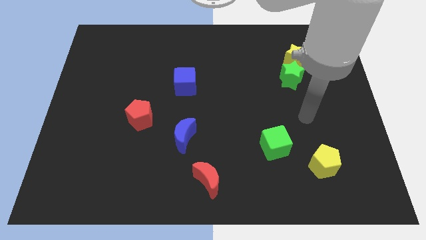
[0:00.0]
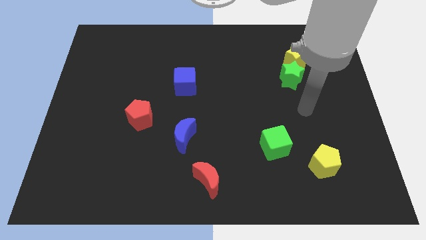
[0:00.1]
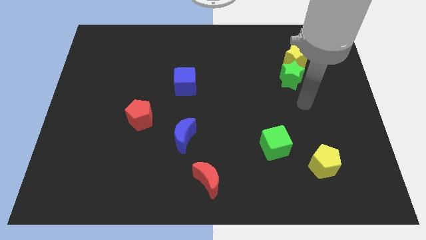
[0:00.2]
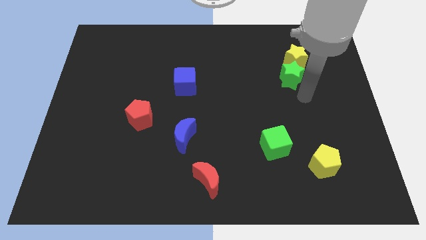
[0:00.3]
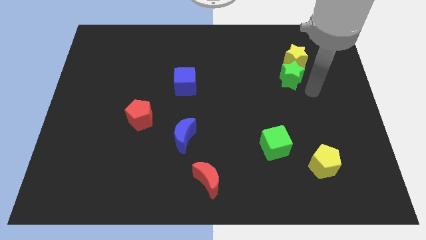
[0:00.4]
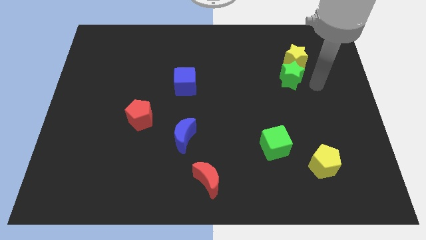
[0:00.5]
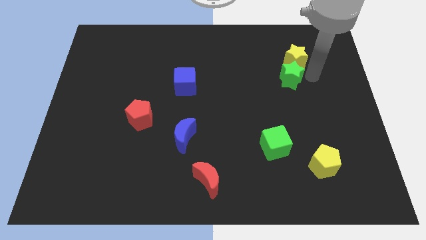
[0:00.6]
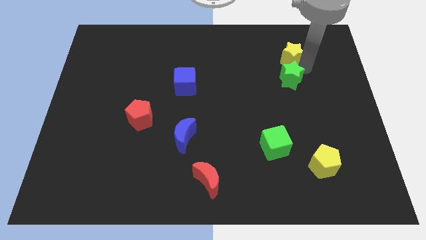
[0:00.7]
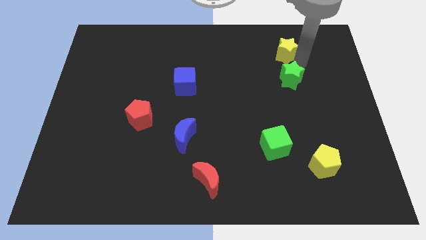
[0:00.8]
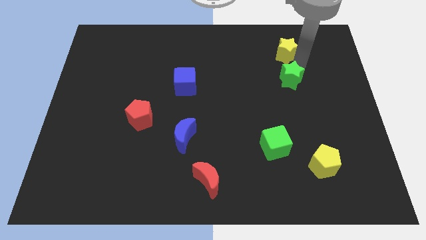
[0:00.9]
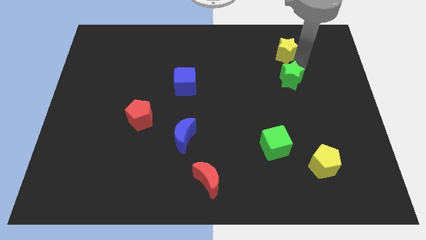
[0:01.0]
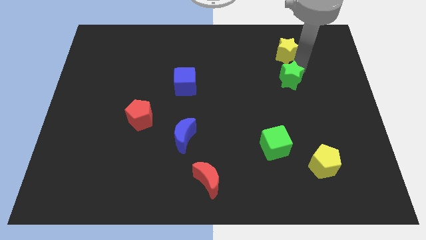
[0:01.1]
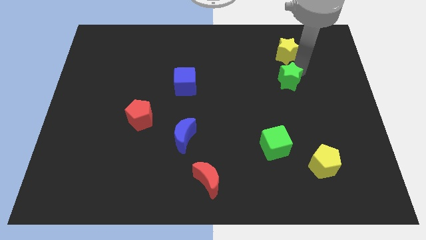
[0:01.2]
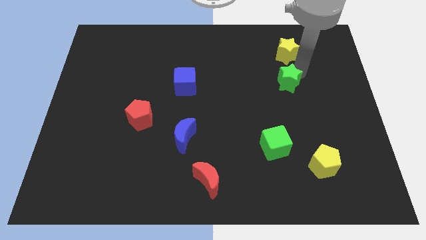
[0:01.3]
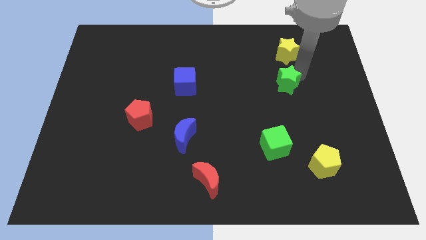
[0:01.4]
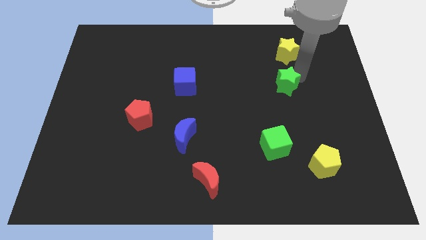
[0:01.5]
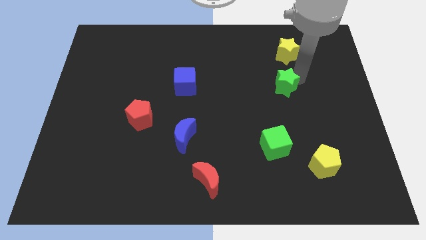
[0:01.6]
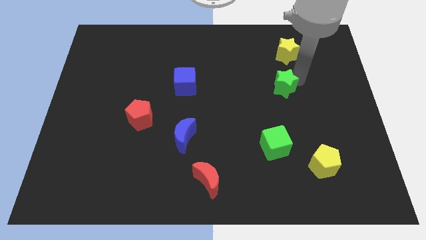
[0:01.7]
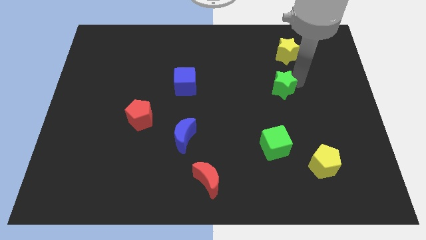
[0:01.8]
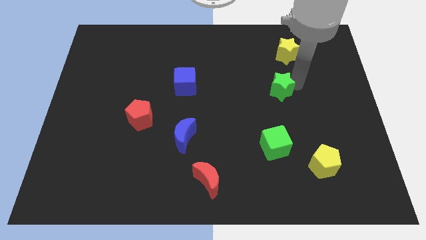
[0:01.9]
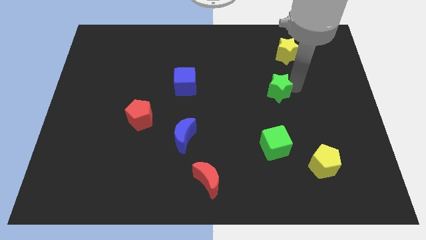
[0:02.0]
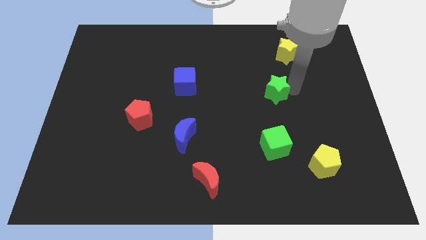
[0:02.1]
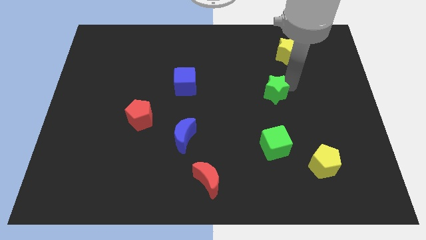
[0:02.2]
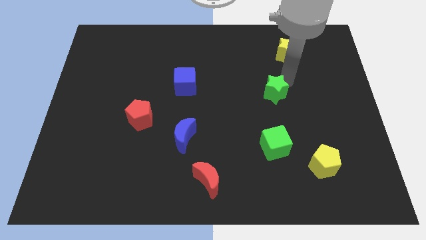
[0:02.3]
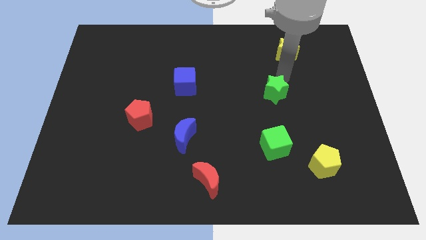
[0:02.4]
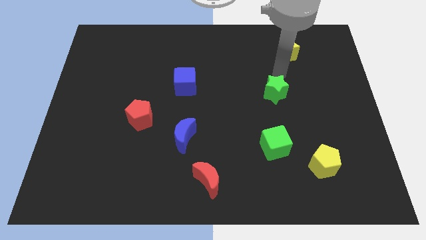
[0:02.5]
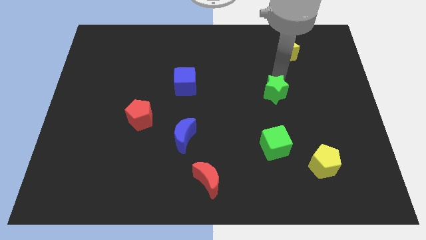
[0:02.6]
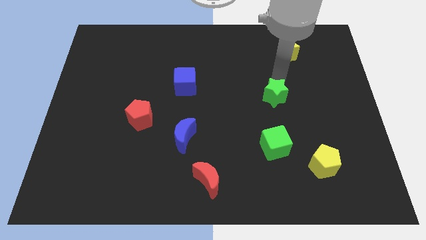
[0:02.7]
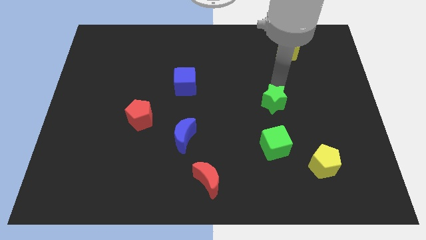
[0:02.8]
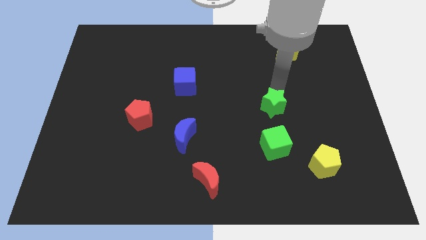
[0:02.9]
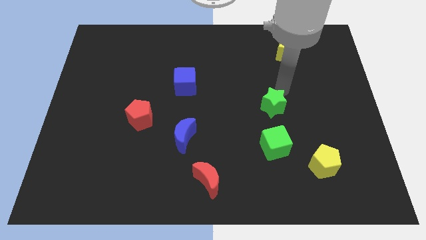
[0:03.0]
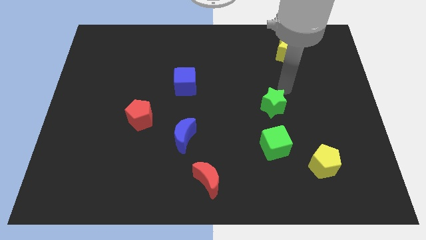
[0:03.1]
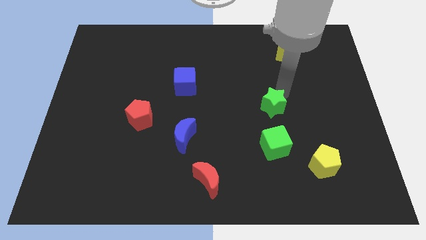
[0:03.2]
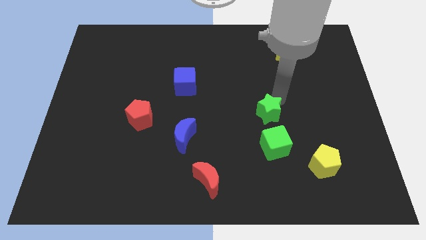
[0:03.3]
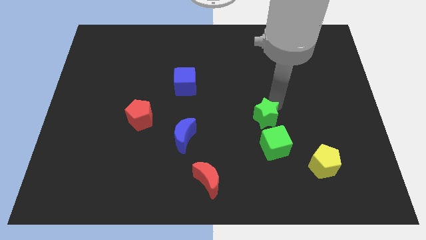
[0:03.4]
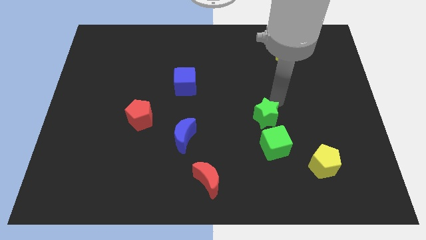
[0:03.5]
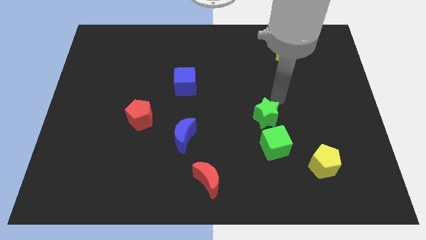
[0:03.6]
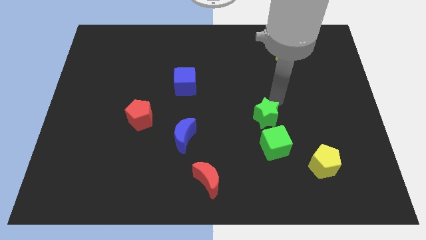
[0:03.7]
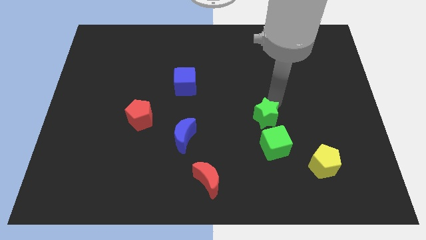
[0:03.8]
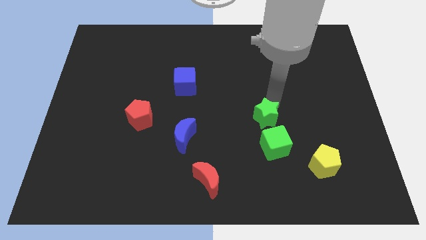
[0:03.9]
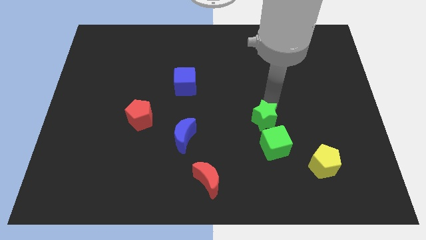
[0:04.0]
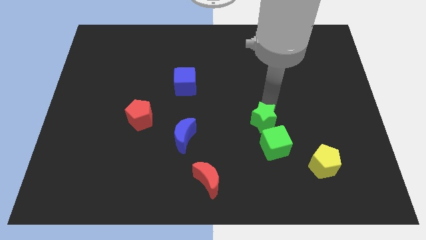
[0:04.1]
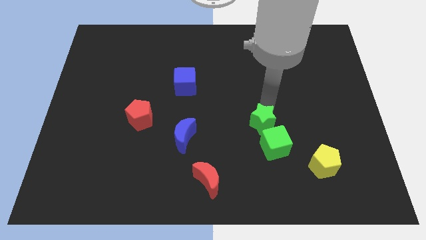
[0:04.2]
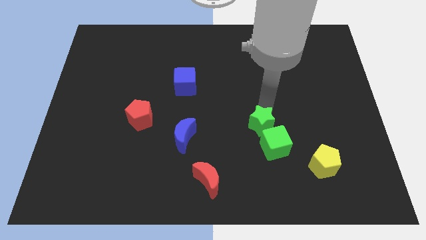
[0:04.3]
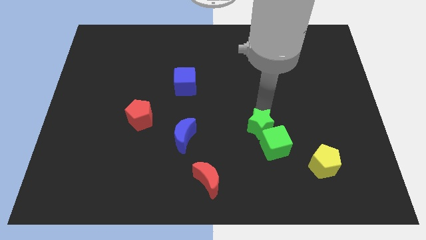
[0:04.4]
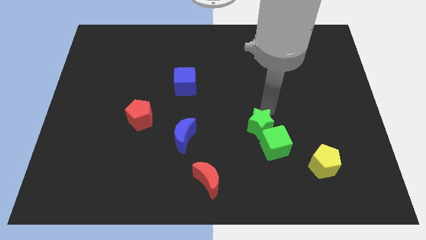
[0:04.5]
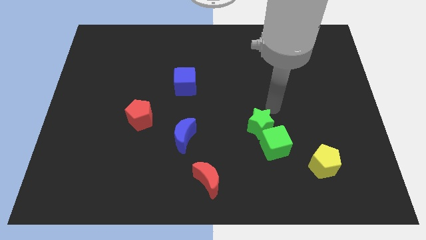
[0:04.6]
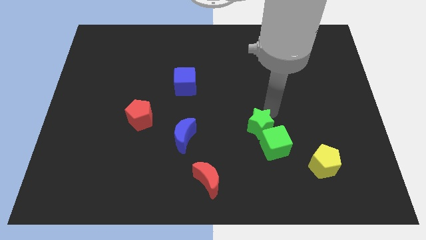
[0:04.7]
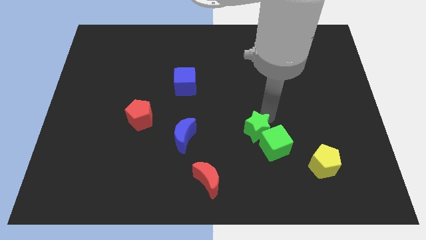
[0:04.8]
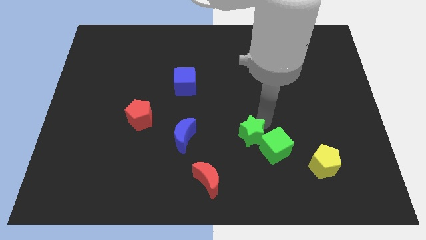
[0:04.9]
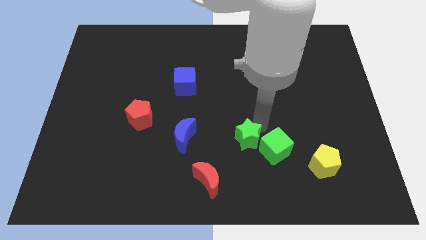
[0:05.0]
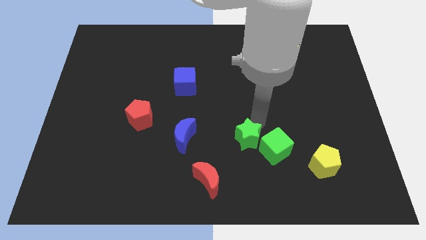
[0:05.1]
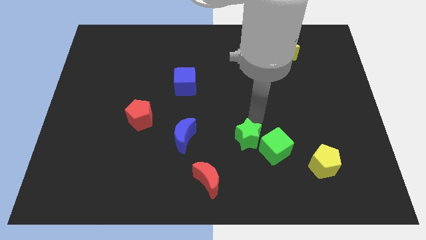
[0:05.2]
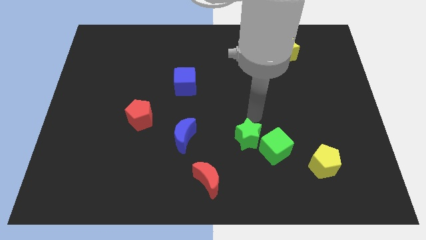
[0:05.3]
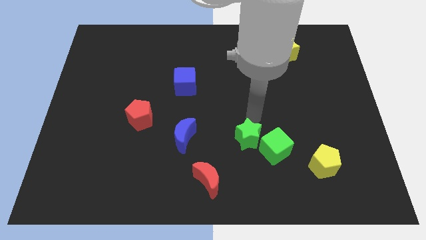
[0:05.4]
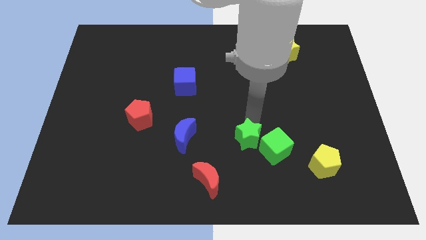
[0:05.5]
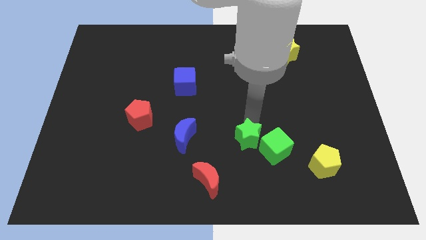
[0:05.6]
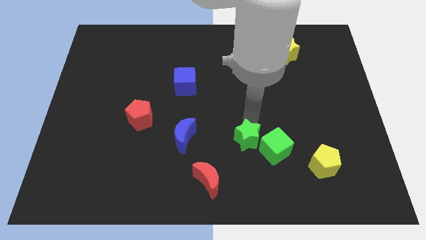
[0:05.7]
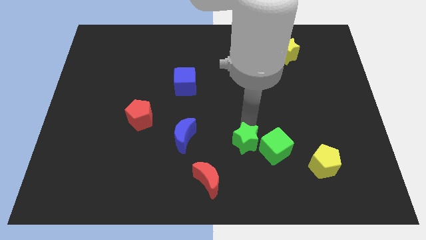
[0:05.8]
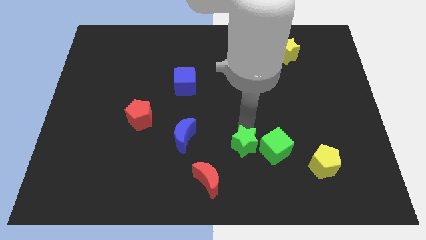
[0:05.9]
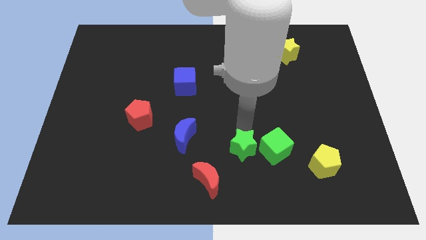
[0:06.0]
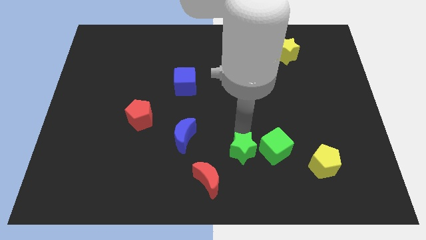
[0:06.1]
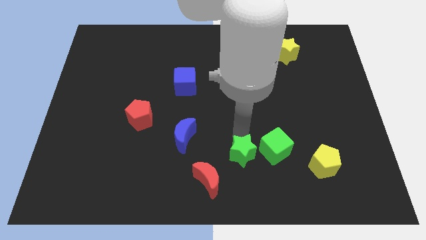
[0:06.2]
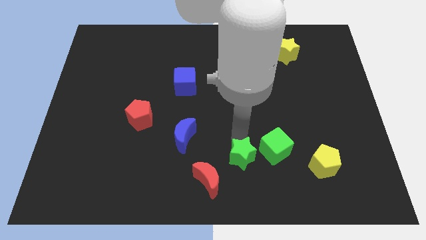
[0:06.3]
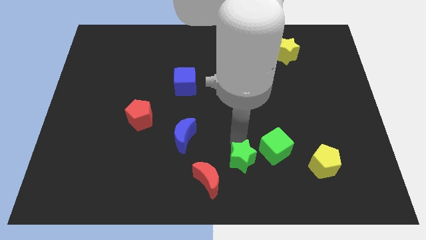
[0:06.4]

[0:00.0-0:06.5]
push the green star to the bottom side

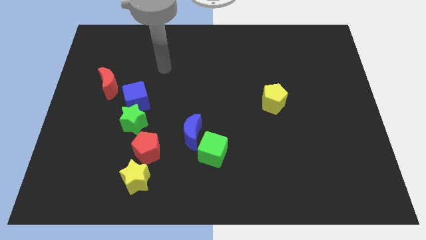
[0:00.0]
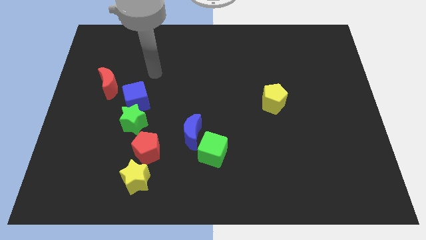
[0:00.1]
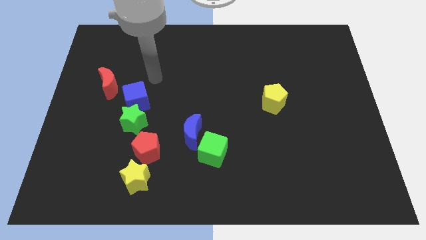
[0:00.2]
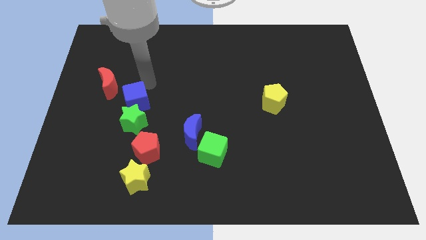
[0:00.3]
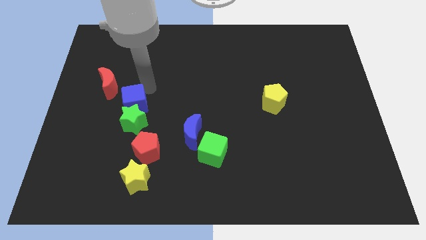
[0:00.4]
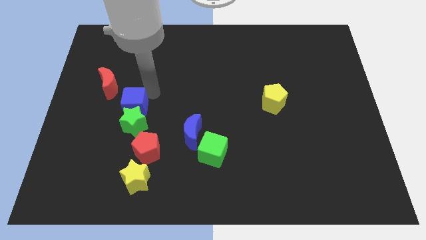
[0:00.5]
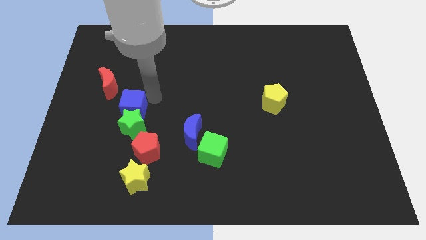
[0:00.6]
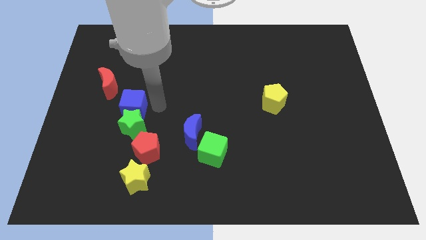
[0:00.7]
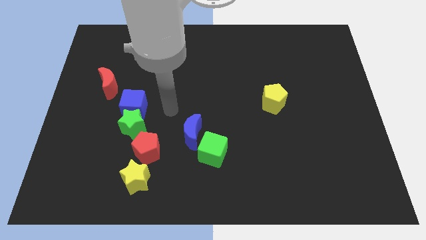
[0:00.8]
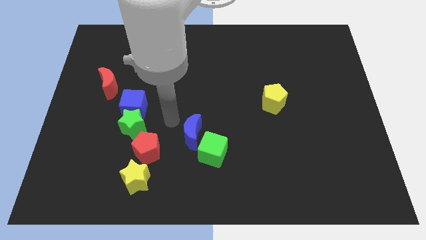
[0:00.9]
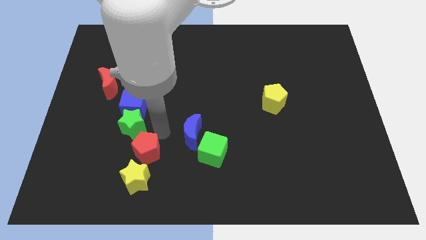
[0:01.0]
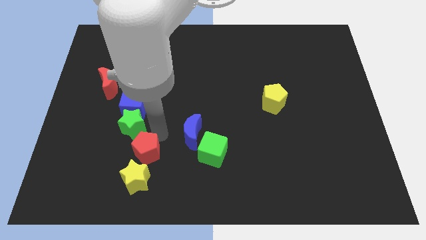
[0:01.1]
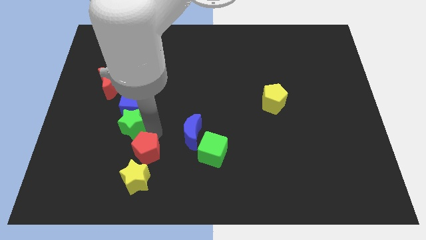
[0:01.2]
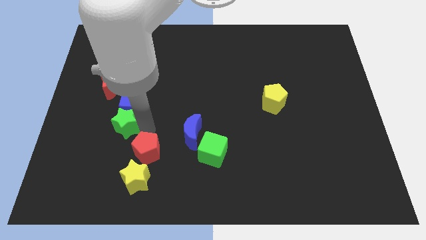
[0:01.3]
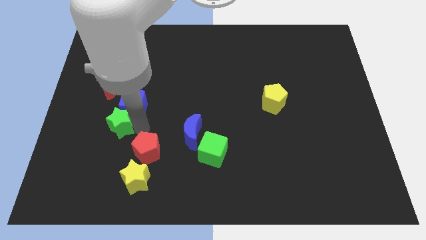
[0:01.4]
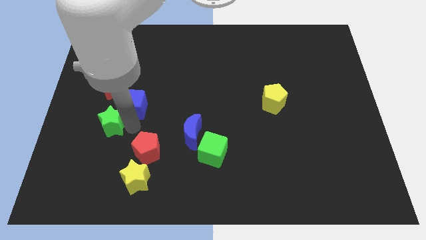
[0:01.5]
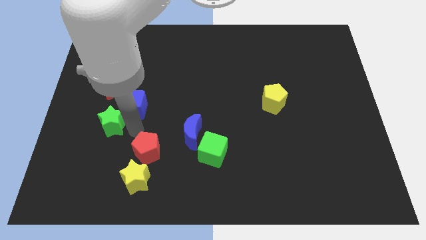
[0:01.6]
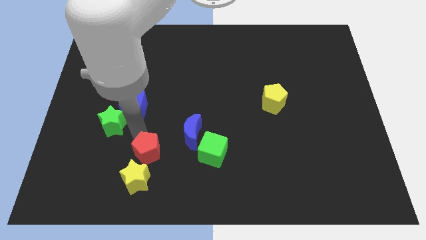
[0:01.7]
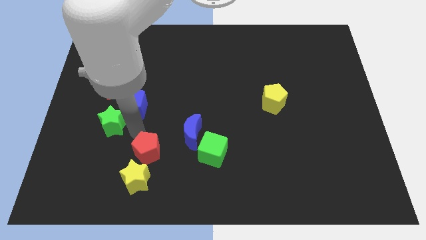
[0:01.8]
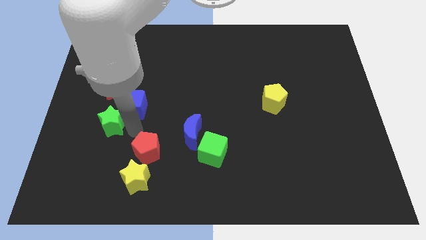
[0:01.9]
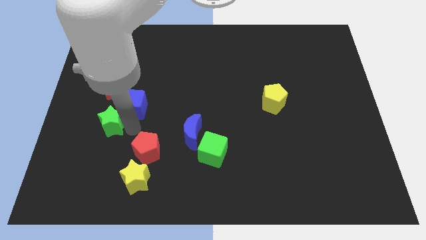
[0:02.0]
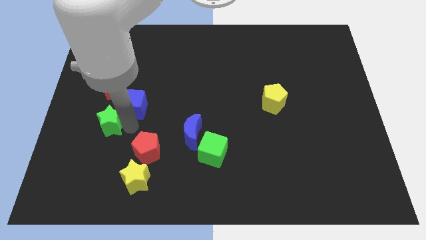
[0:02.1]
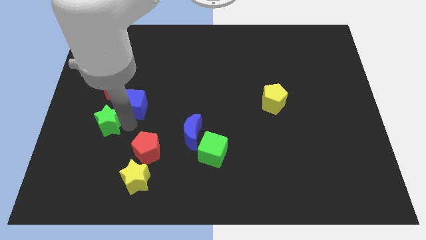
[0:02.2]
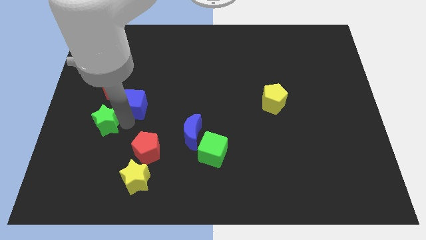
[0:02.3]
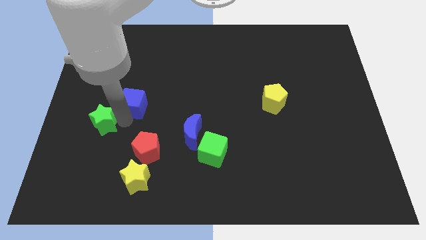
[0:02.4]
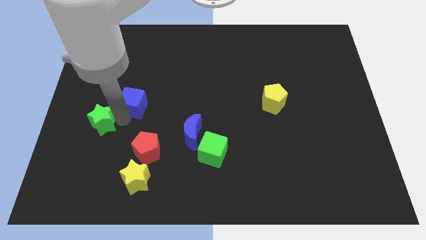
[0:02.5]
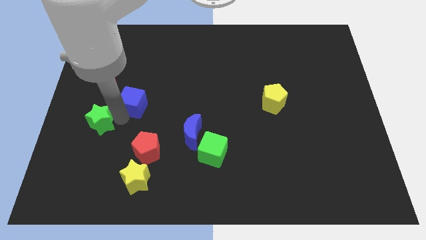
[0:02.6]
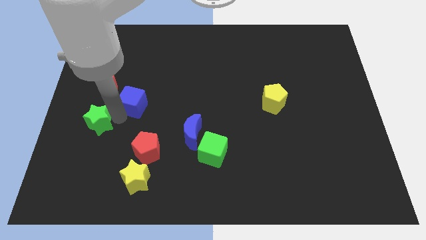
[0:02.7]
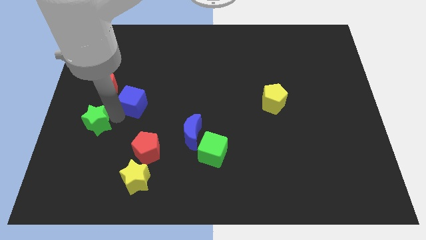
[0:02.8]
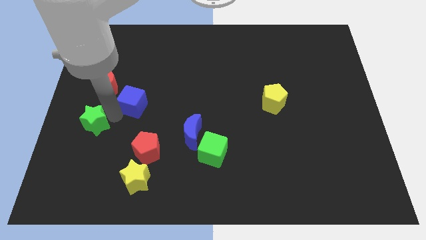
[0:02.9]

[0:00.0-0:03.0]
slide the green star to the center left
